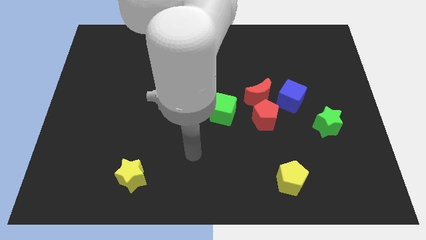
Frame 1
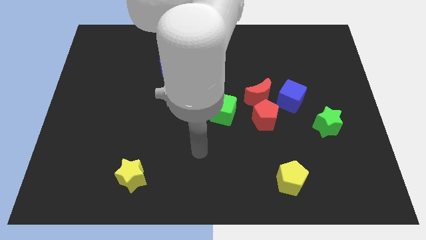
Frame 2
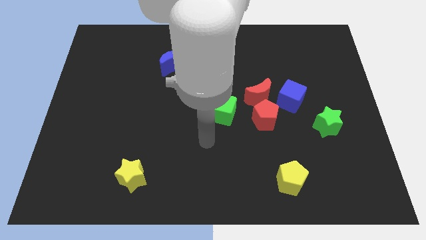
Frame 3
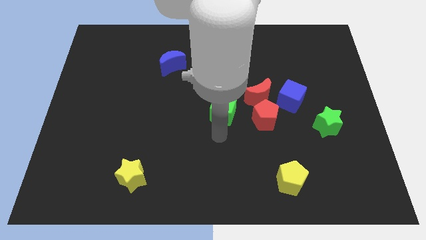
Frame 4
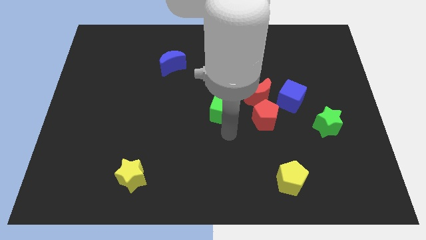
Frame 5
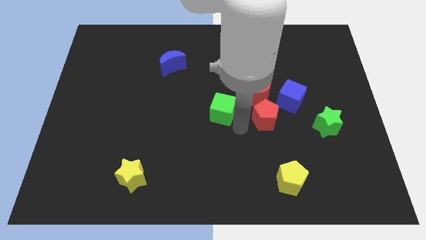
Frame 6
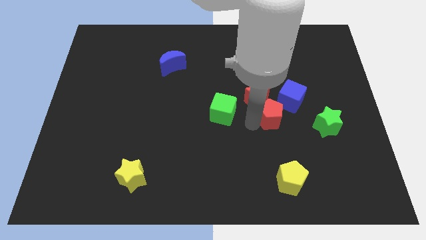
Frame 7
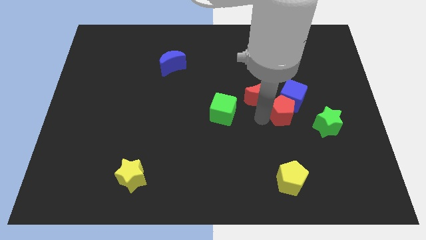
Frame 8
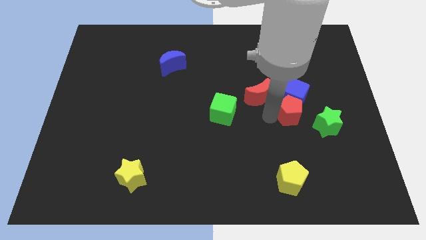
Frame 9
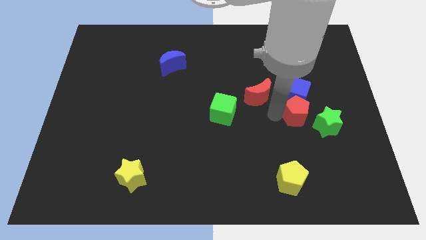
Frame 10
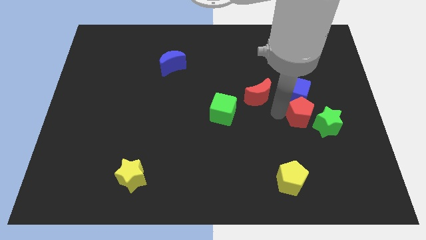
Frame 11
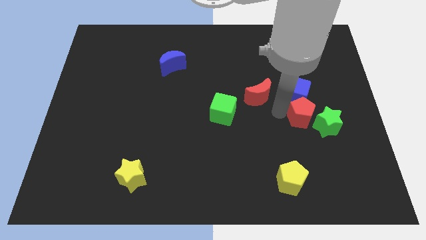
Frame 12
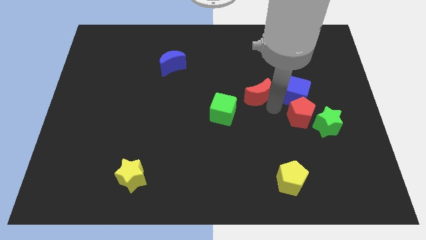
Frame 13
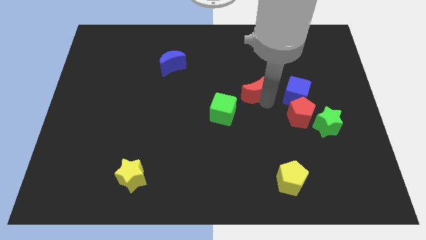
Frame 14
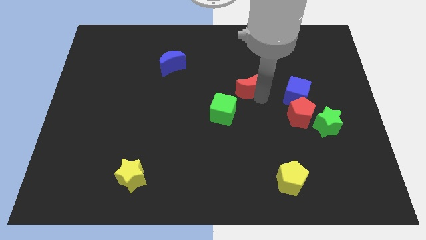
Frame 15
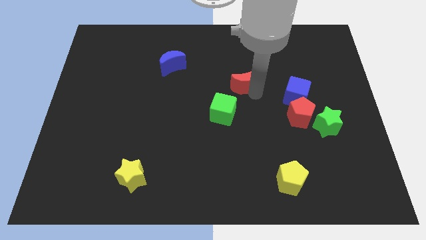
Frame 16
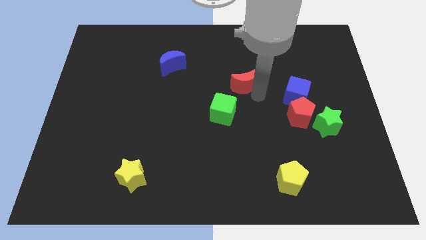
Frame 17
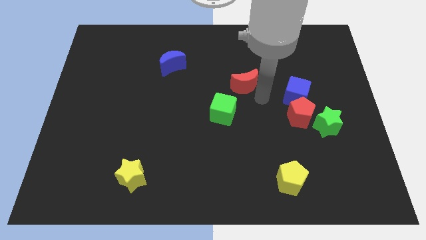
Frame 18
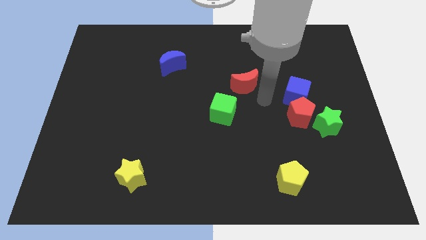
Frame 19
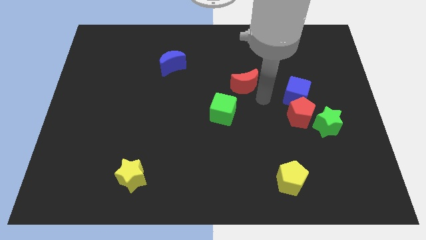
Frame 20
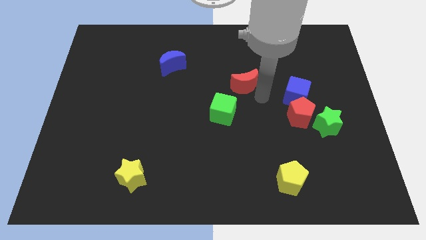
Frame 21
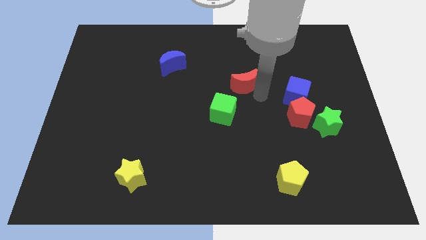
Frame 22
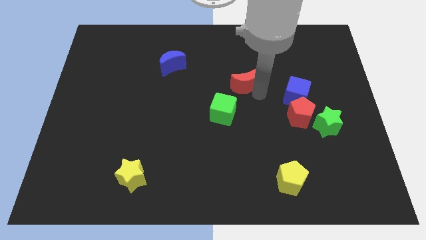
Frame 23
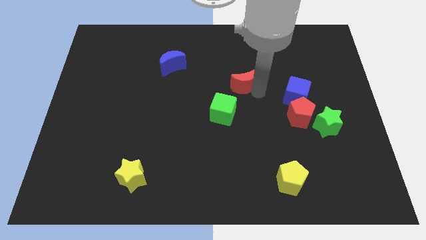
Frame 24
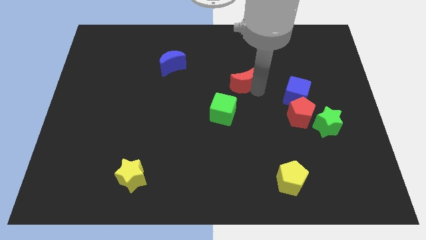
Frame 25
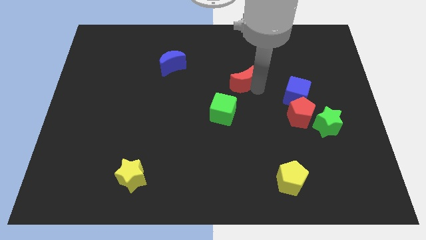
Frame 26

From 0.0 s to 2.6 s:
separate the red moon from the clump

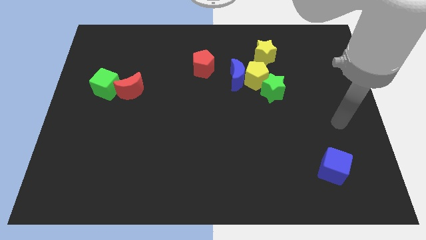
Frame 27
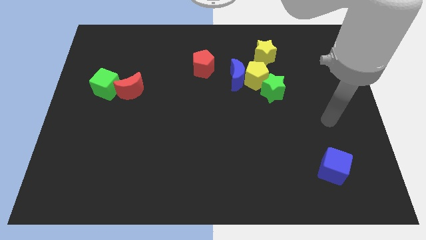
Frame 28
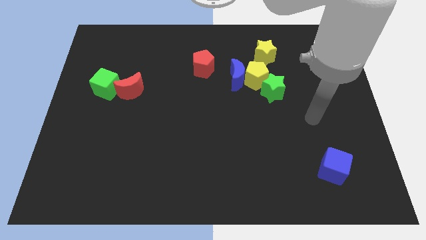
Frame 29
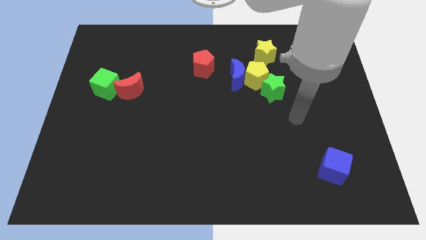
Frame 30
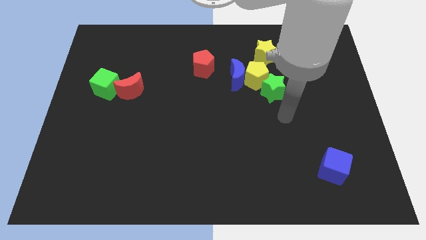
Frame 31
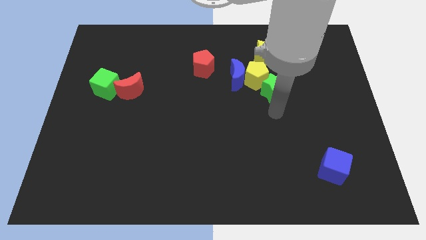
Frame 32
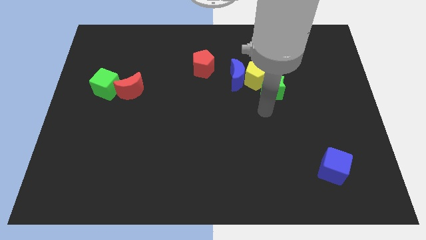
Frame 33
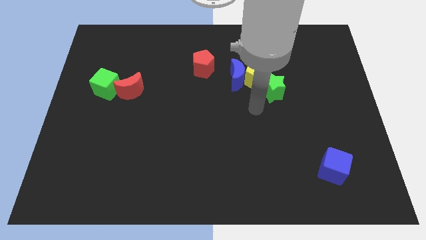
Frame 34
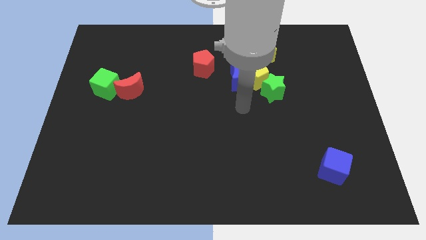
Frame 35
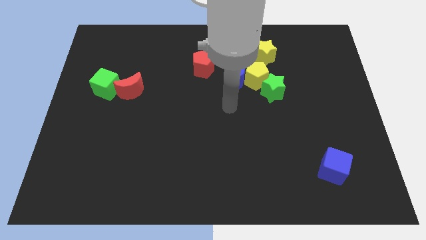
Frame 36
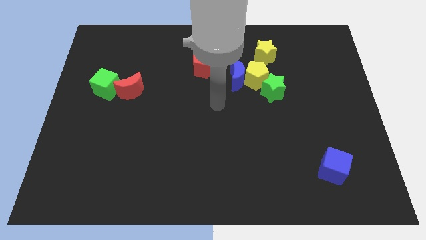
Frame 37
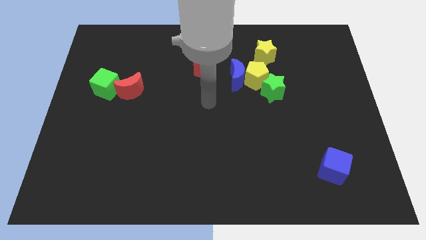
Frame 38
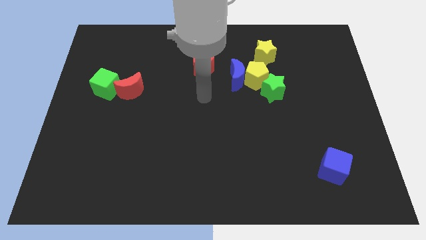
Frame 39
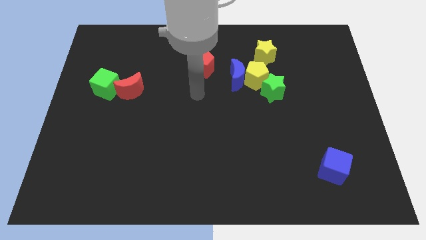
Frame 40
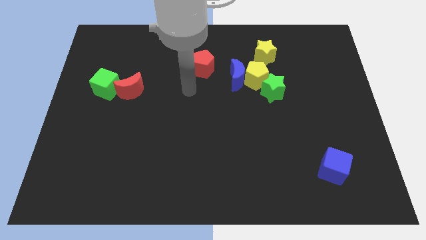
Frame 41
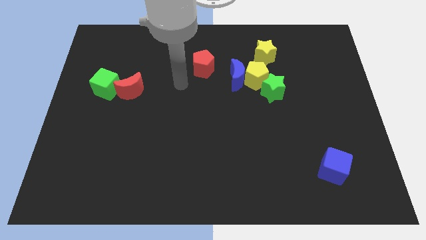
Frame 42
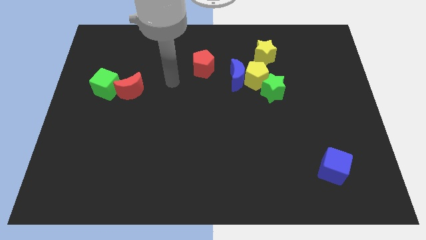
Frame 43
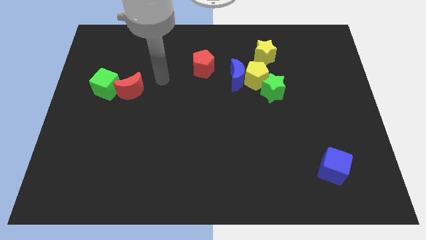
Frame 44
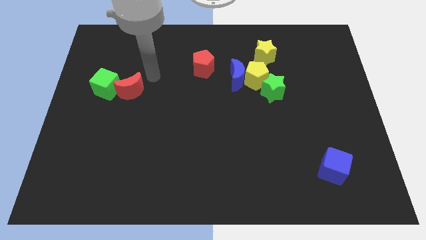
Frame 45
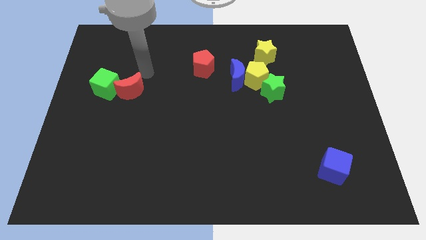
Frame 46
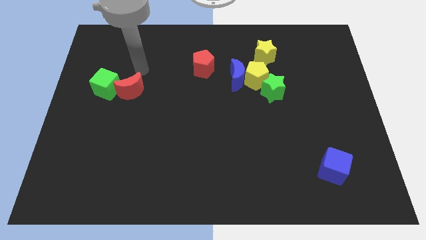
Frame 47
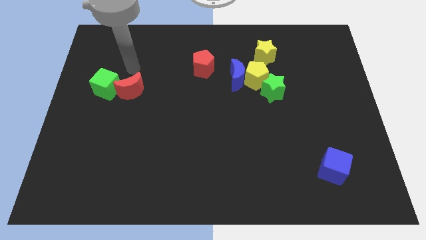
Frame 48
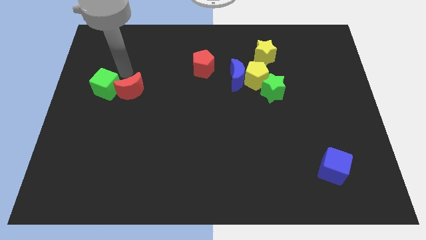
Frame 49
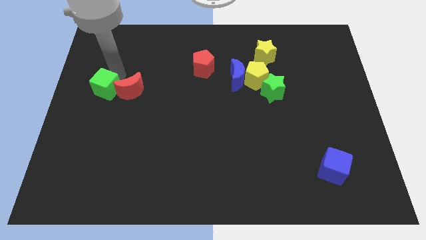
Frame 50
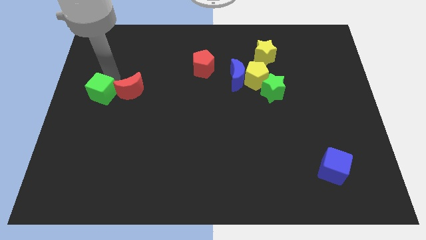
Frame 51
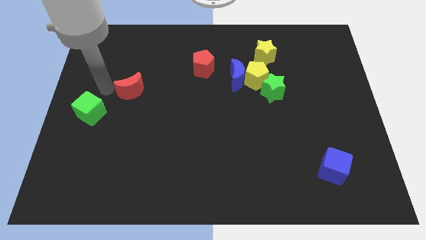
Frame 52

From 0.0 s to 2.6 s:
pull the red moon apart from the green cube

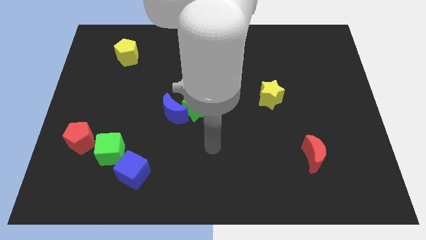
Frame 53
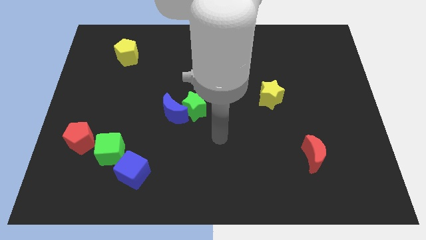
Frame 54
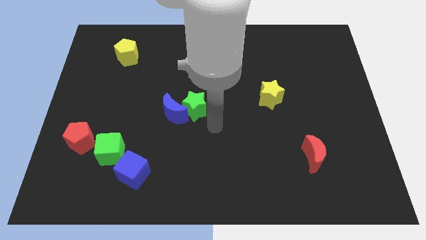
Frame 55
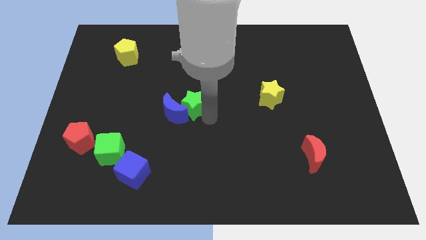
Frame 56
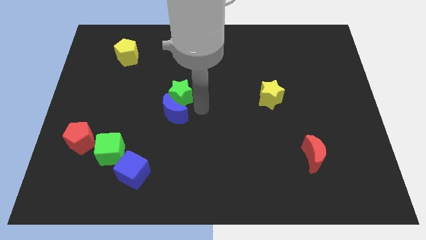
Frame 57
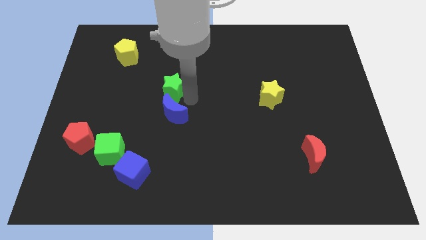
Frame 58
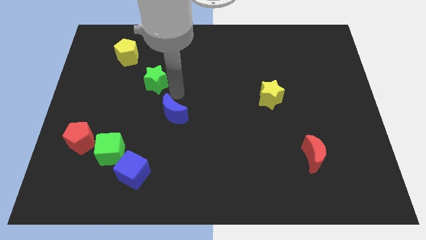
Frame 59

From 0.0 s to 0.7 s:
move the blue moon away from the green star

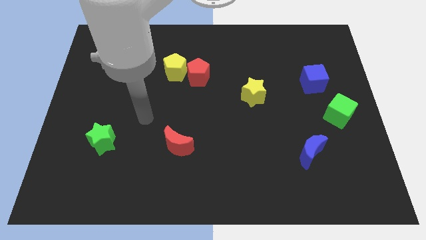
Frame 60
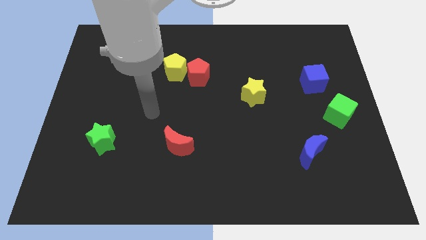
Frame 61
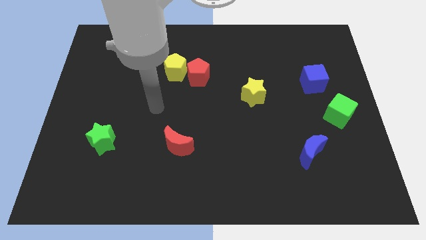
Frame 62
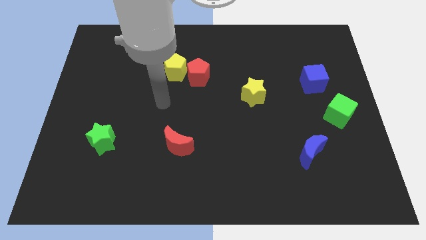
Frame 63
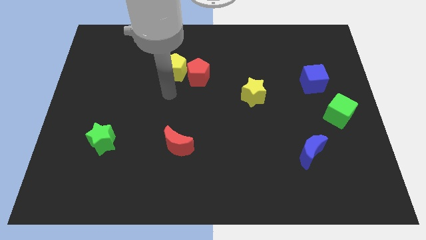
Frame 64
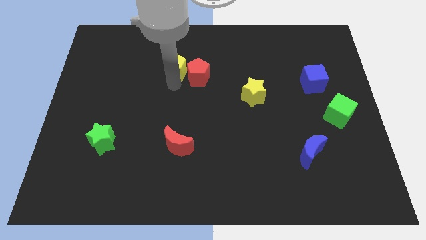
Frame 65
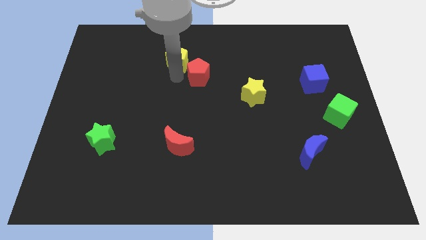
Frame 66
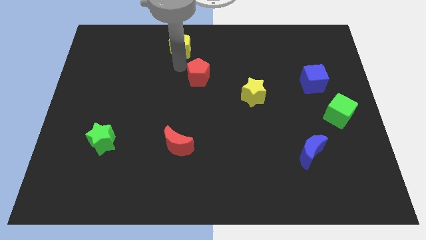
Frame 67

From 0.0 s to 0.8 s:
move the red pentagon away from the yellow pentagon

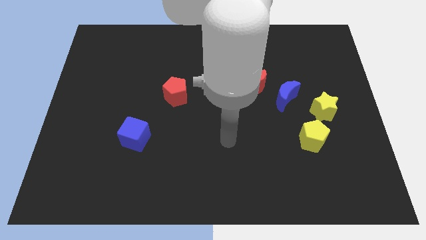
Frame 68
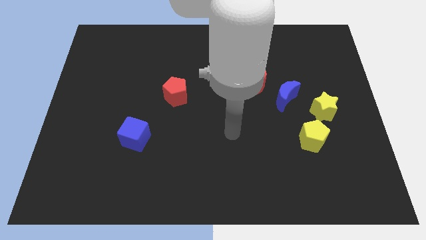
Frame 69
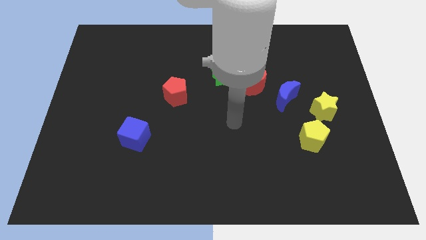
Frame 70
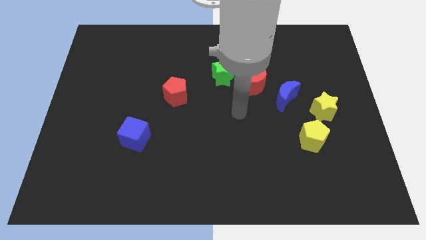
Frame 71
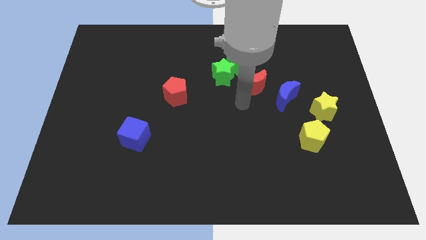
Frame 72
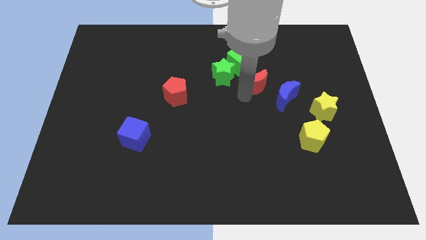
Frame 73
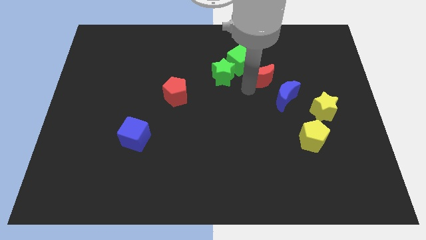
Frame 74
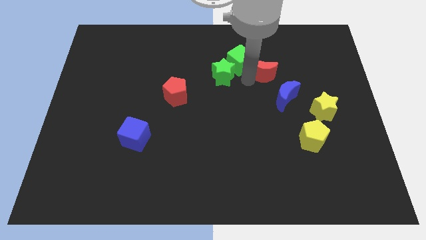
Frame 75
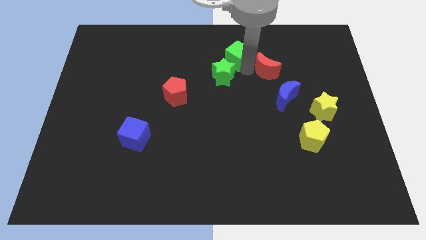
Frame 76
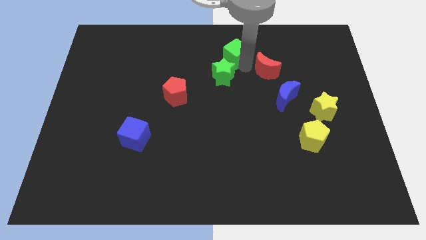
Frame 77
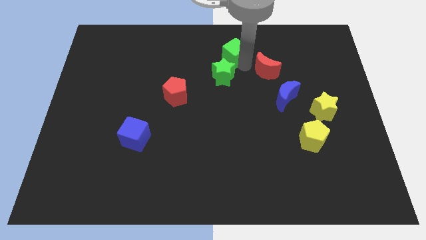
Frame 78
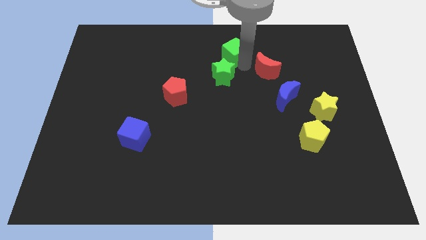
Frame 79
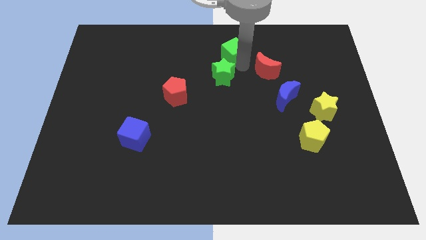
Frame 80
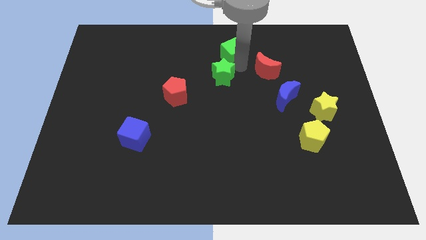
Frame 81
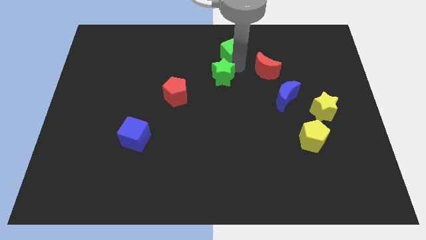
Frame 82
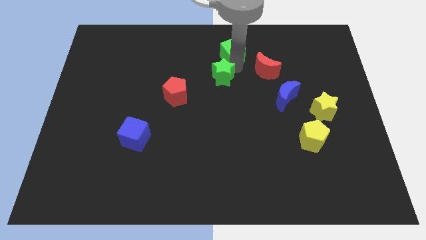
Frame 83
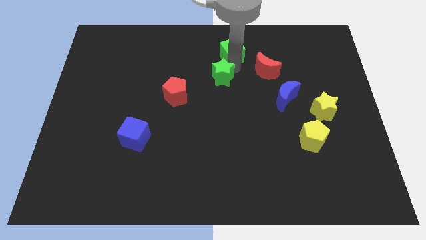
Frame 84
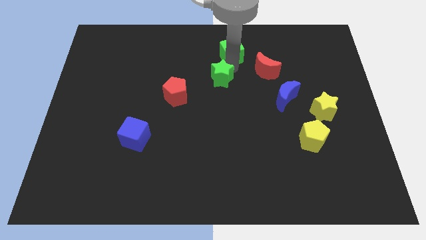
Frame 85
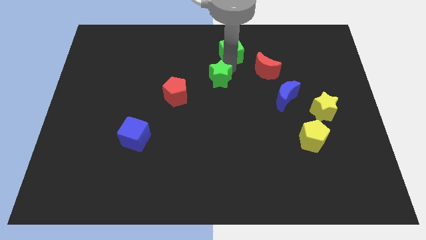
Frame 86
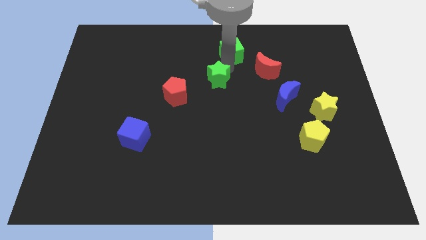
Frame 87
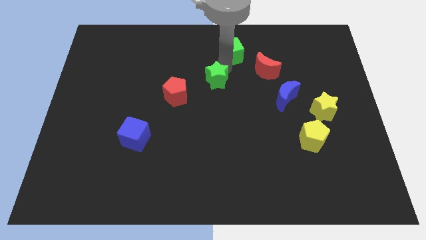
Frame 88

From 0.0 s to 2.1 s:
separate the green star from the green cube and red moon

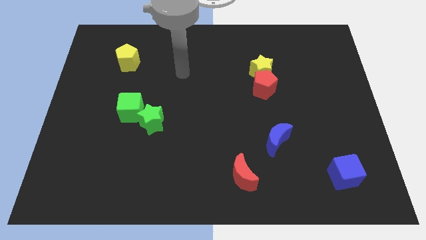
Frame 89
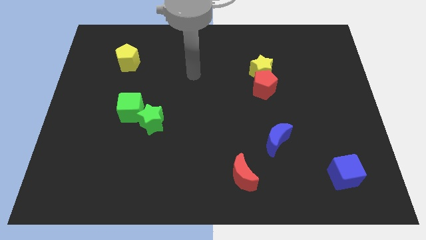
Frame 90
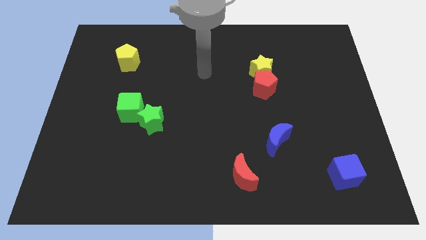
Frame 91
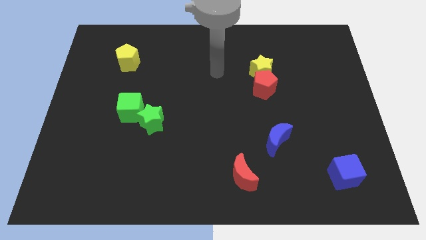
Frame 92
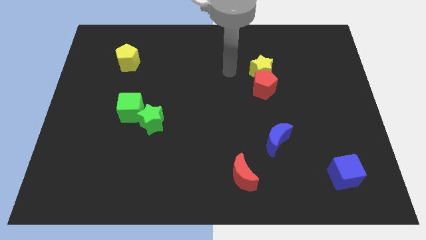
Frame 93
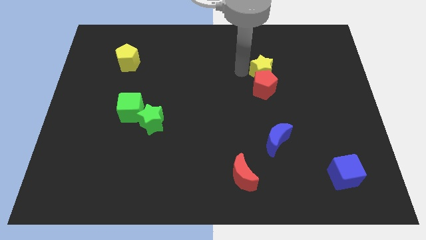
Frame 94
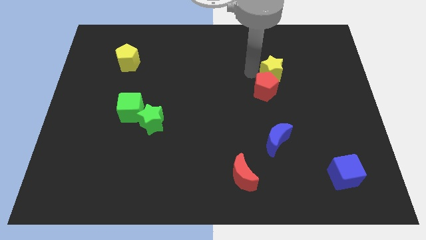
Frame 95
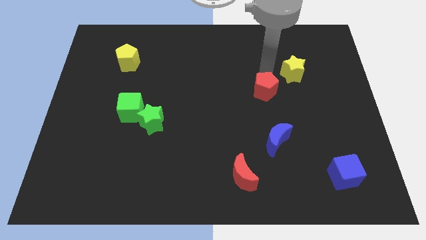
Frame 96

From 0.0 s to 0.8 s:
move the red pentagon away from the yellow star
